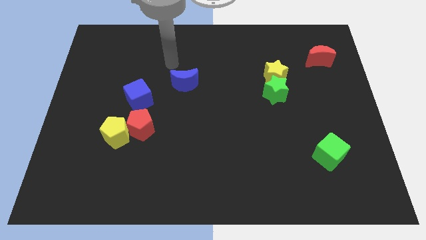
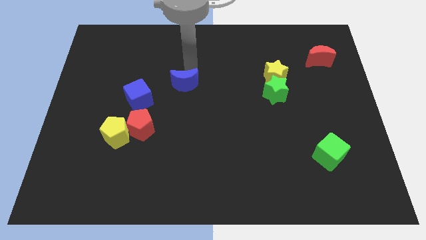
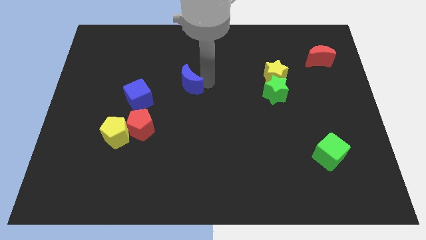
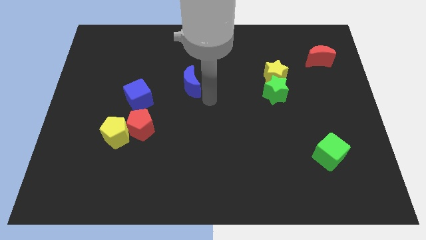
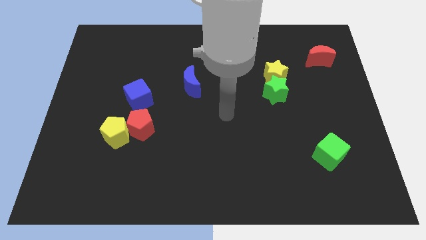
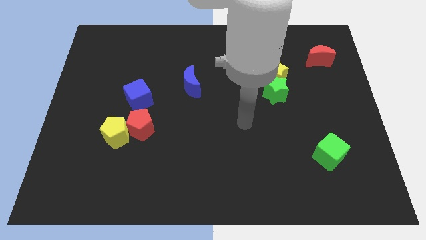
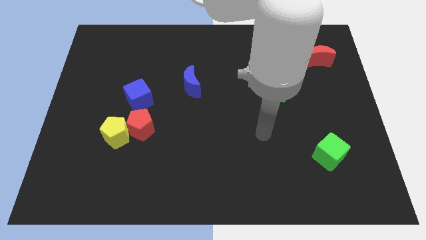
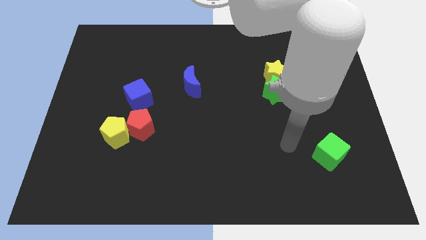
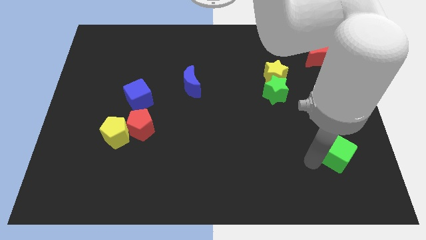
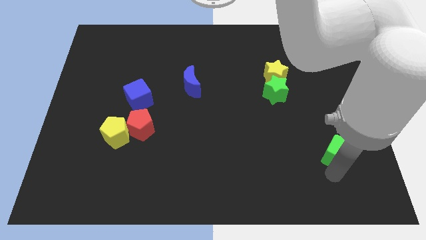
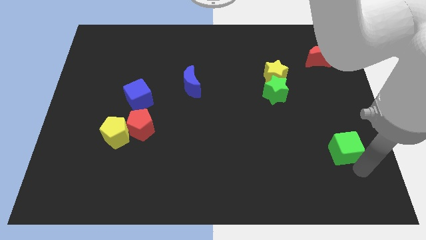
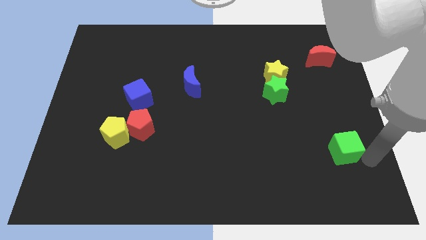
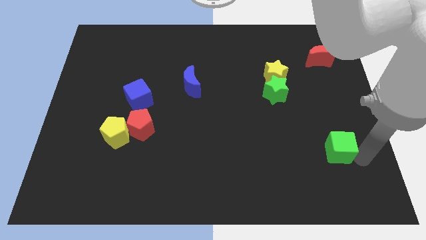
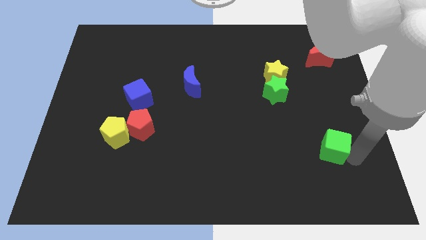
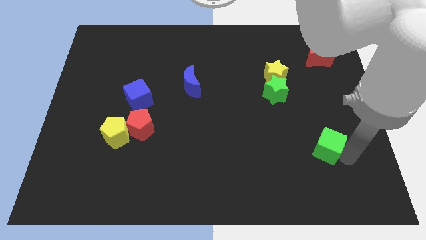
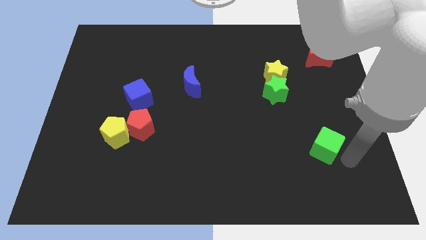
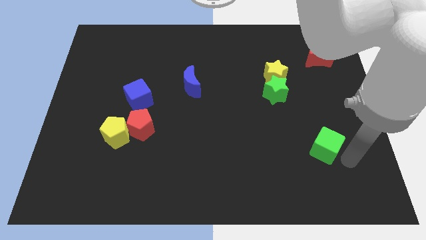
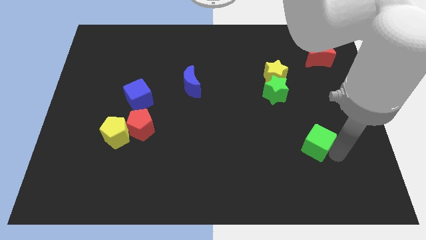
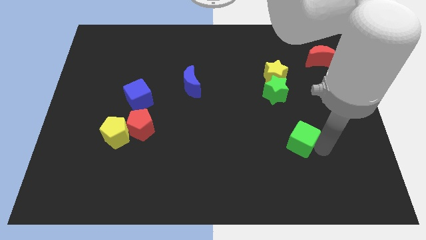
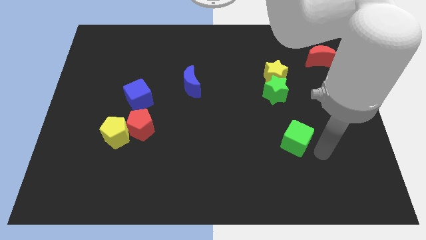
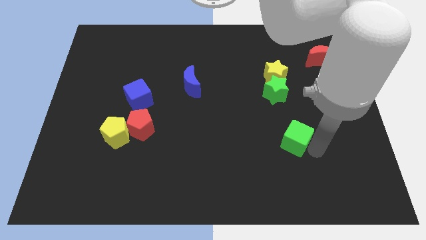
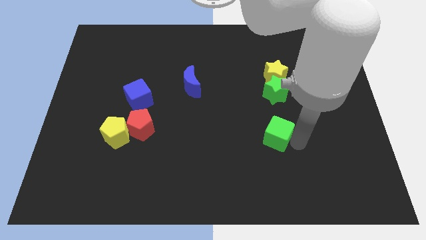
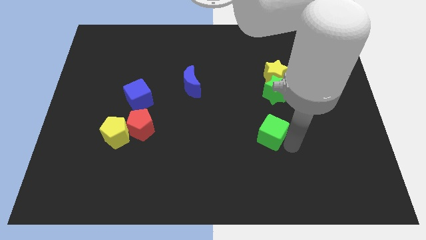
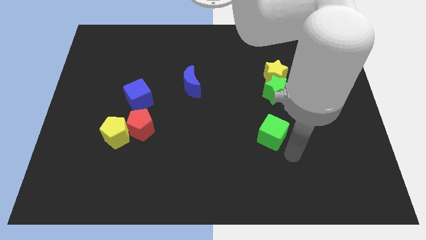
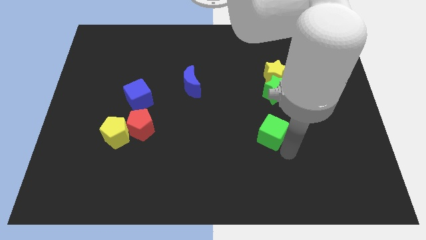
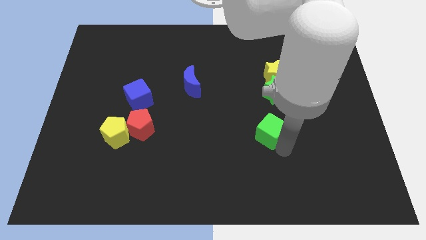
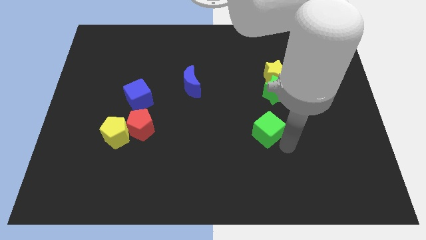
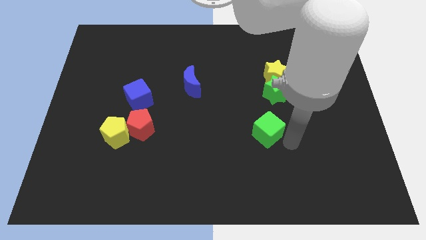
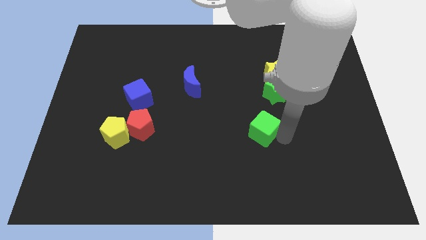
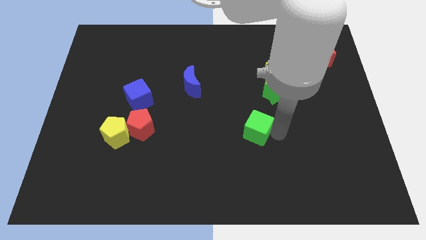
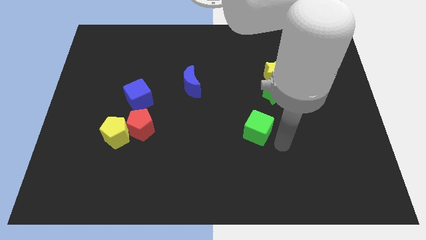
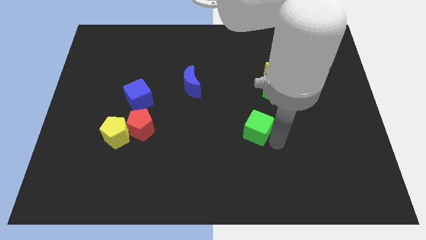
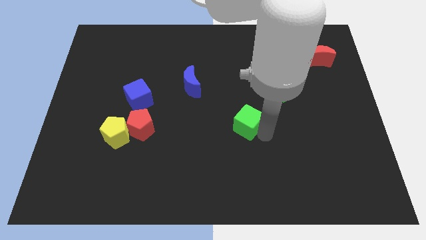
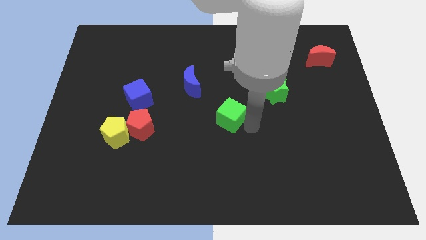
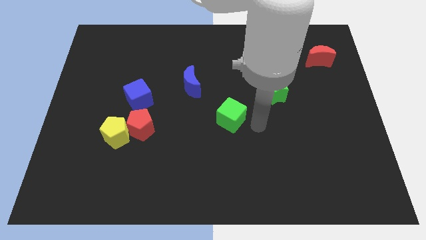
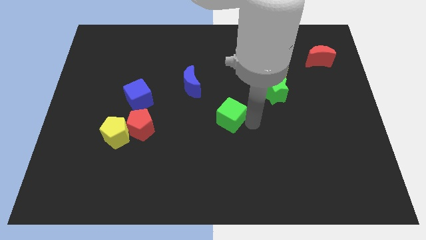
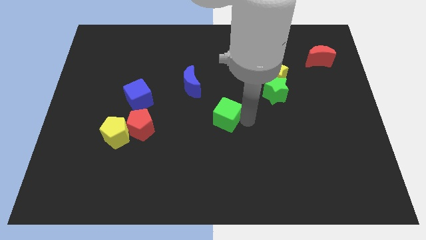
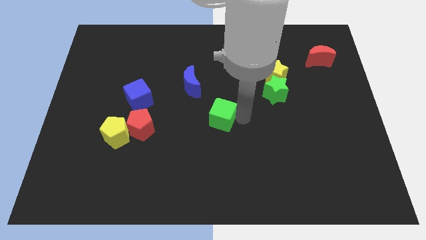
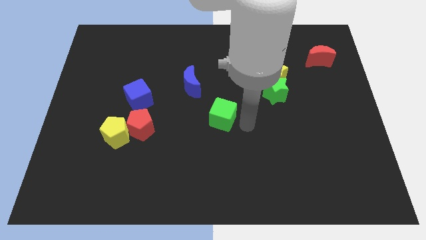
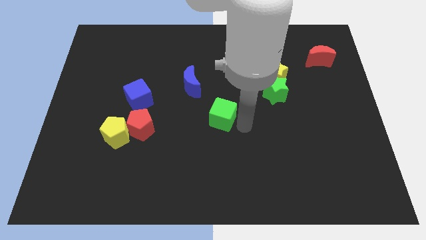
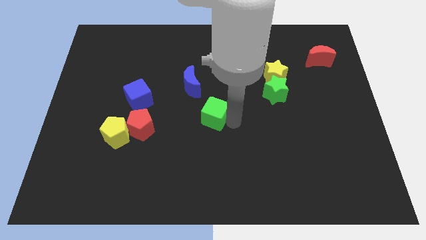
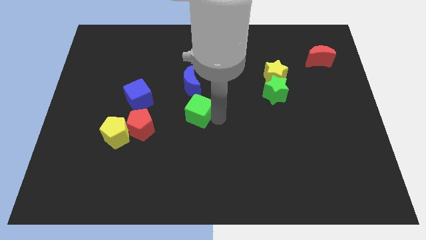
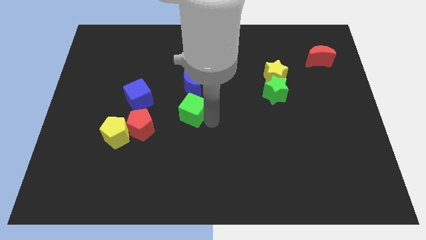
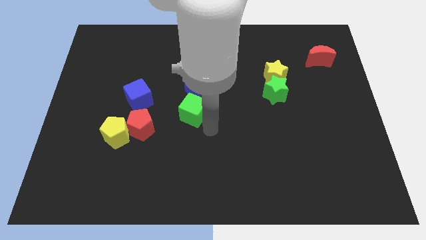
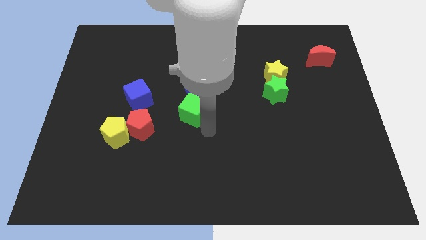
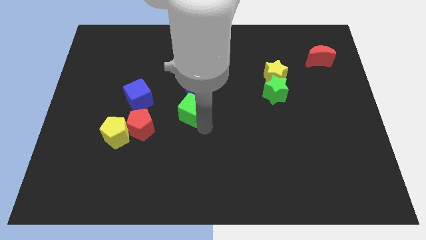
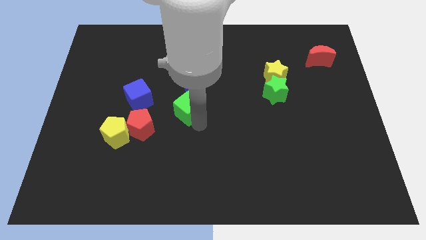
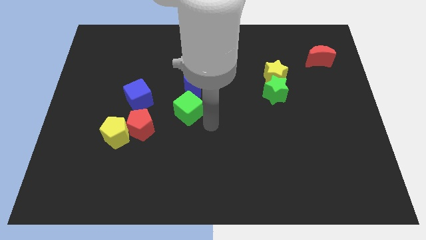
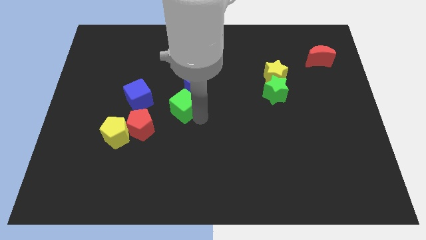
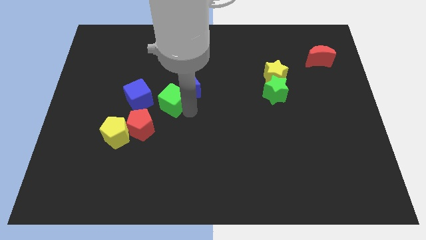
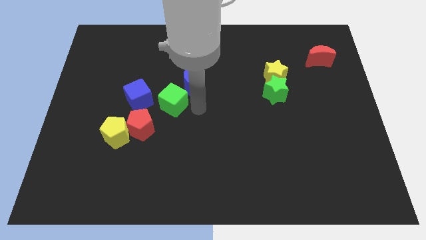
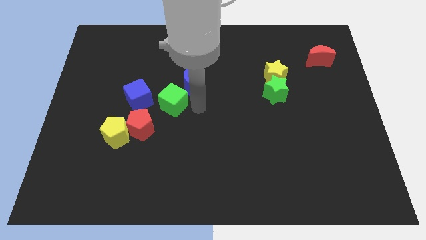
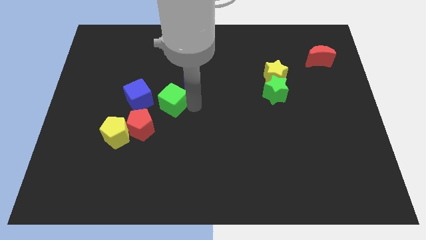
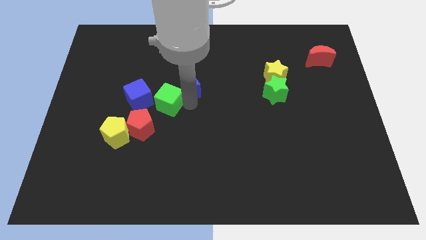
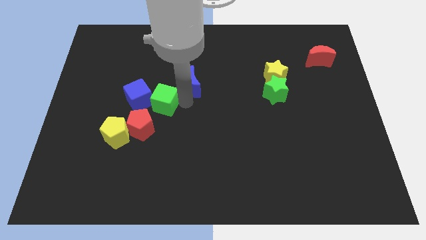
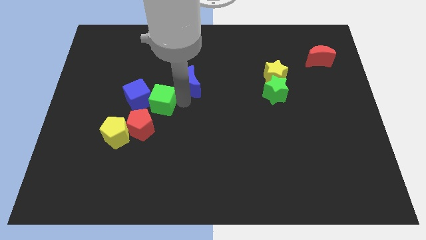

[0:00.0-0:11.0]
push the green cube next to the blue cube

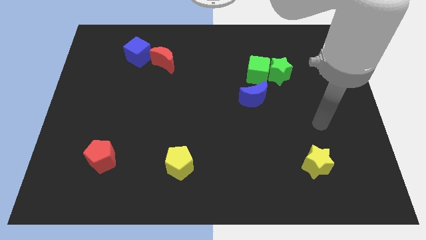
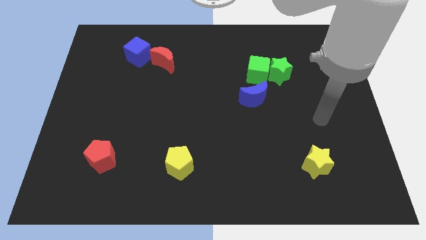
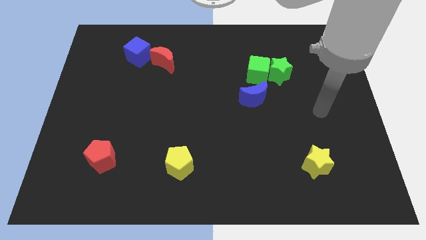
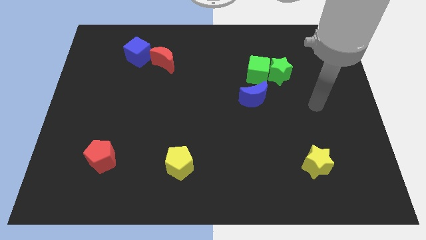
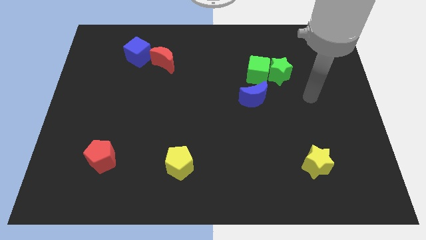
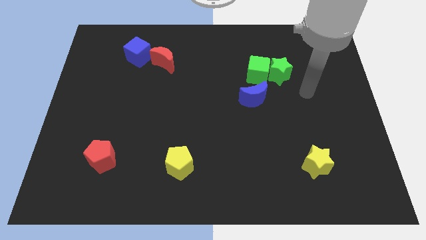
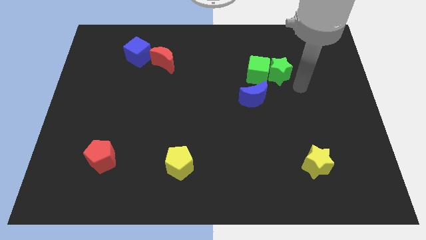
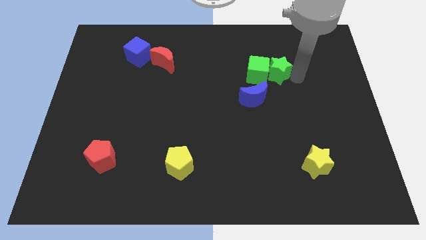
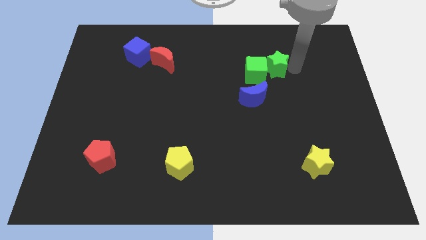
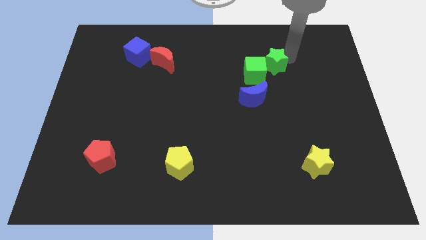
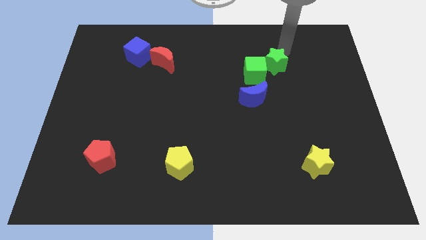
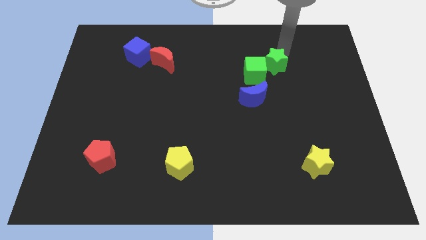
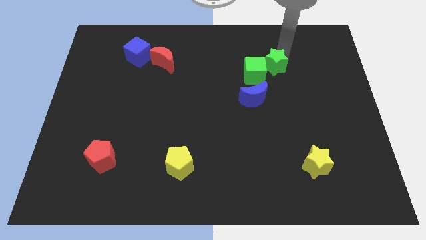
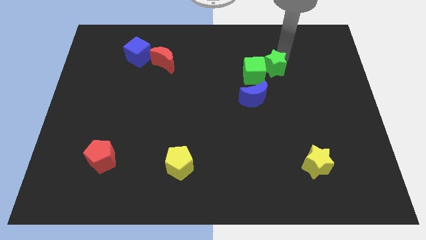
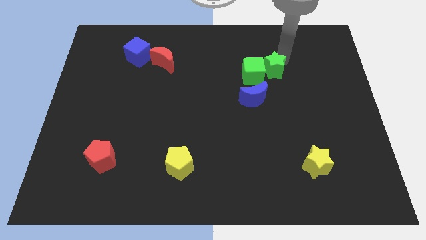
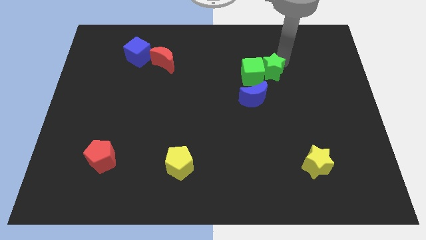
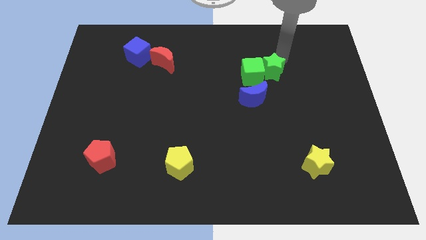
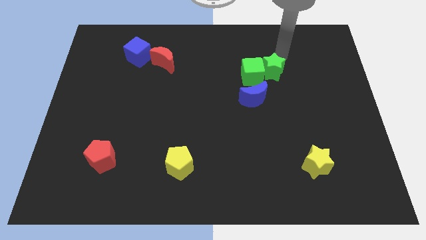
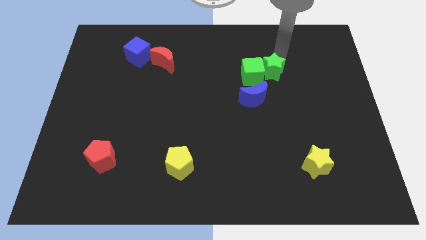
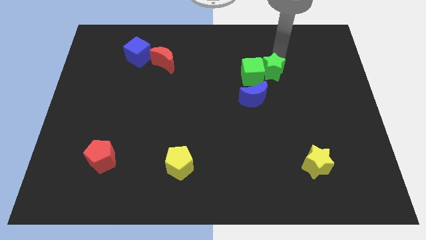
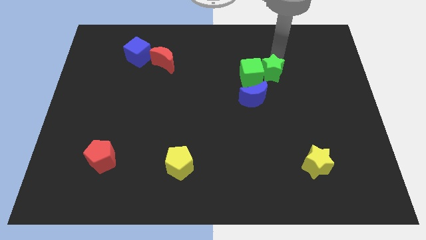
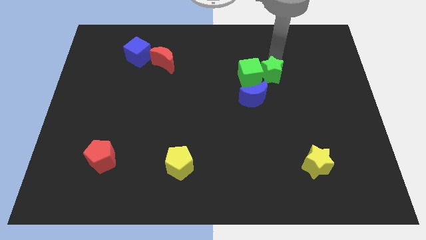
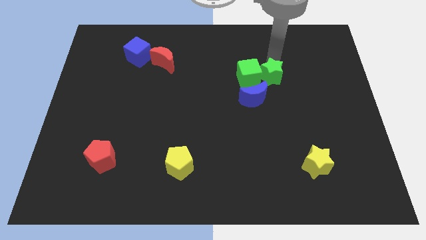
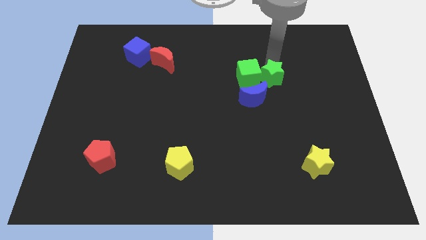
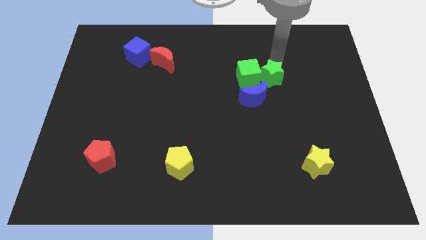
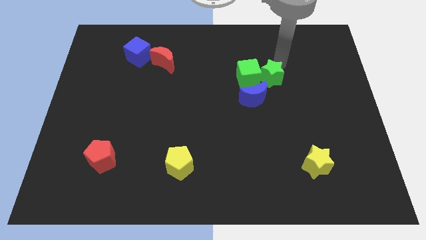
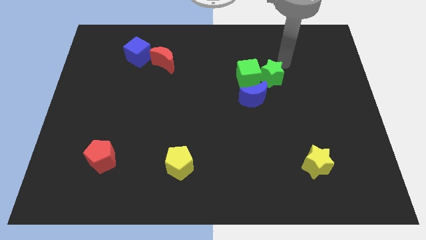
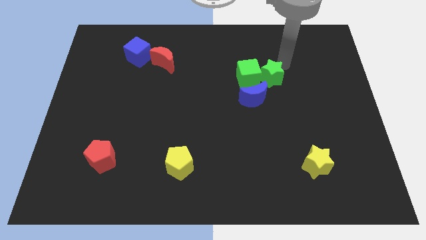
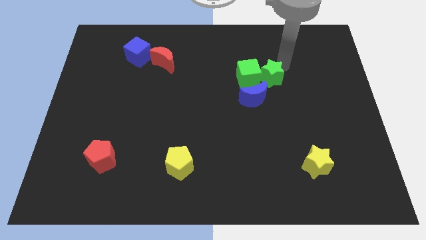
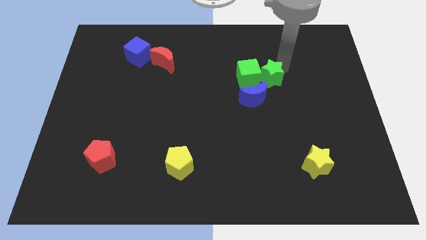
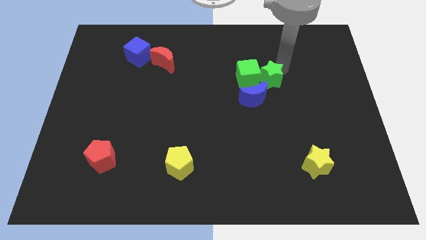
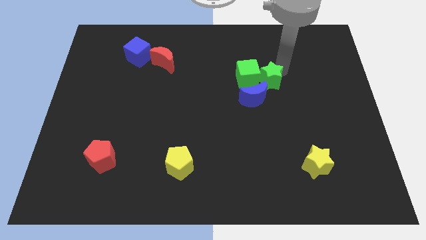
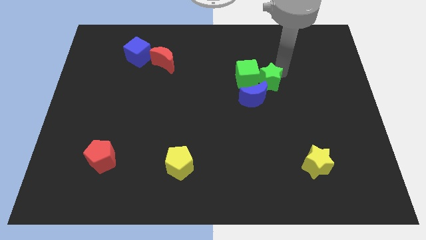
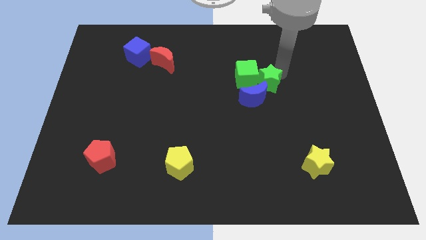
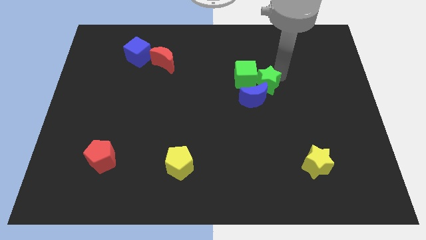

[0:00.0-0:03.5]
put the green star close to the blue moon
